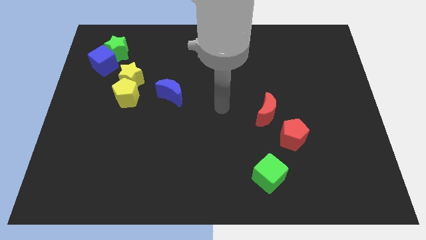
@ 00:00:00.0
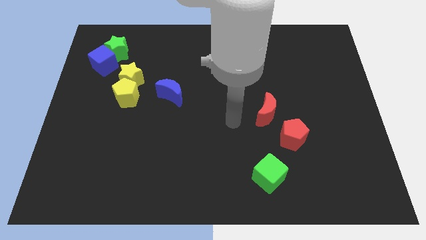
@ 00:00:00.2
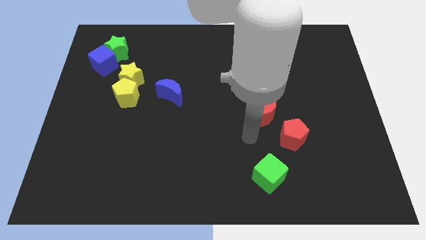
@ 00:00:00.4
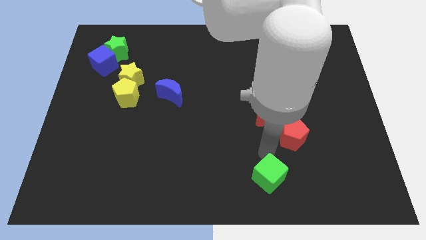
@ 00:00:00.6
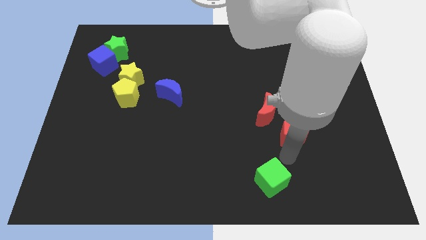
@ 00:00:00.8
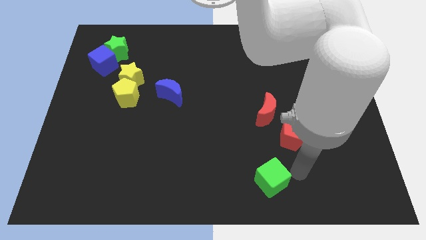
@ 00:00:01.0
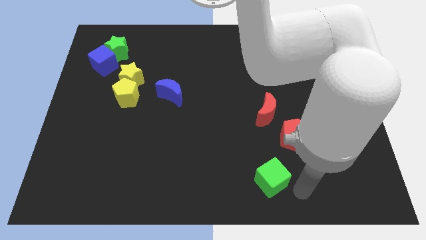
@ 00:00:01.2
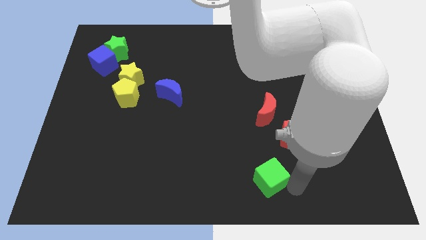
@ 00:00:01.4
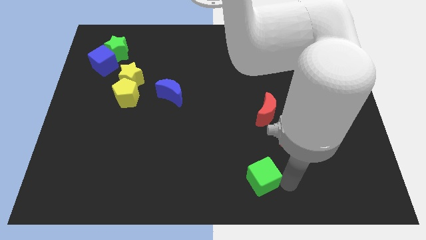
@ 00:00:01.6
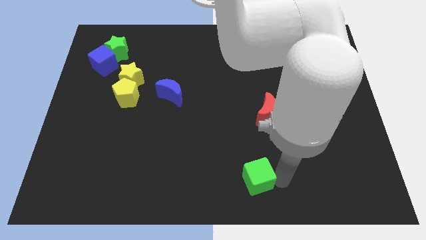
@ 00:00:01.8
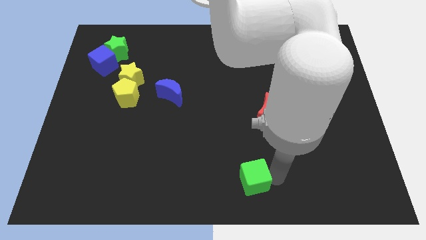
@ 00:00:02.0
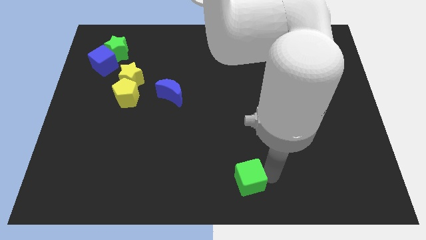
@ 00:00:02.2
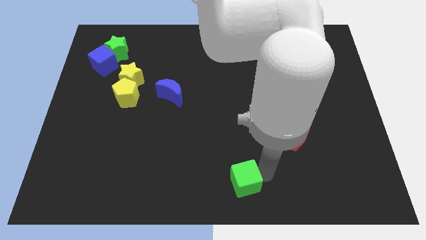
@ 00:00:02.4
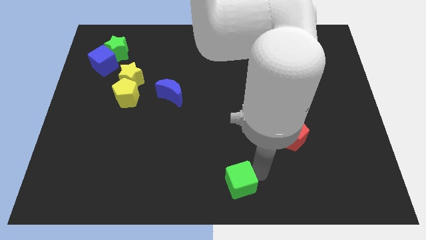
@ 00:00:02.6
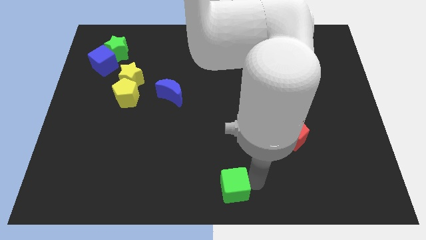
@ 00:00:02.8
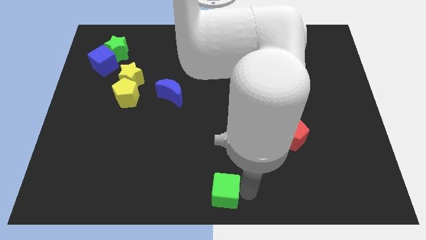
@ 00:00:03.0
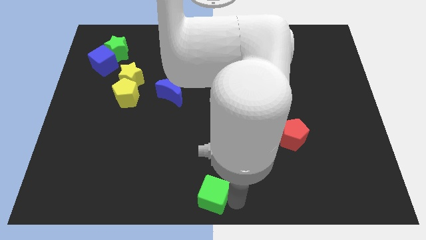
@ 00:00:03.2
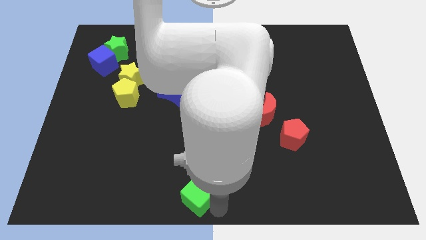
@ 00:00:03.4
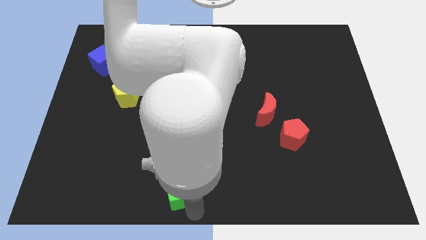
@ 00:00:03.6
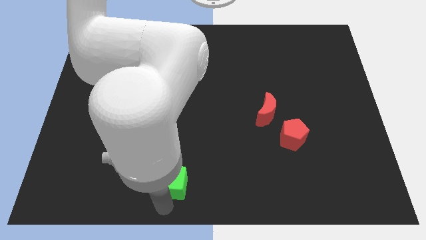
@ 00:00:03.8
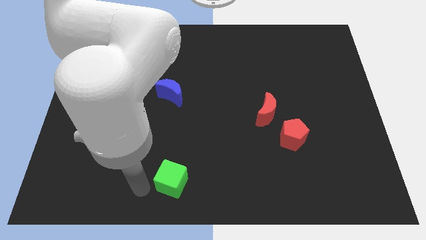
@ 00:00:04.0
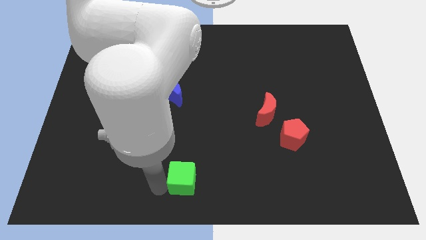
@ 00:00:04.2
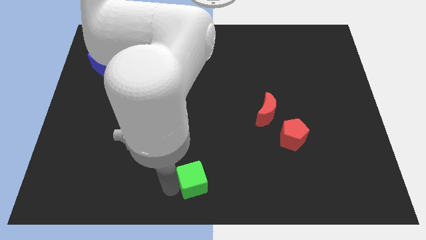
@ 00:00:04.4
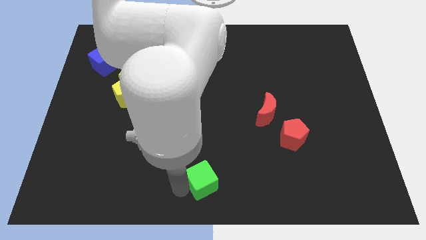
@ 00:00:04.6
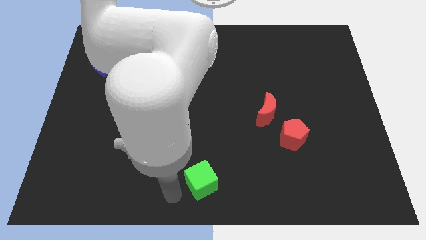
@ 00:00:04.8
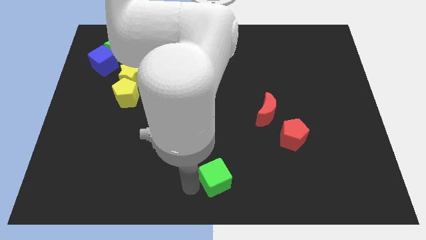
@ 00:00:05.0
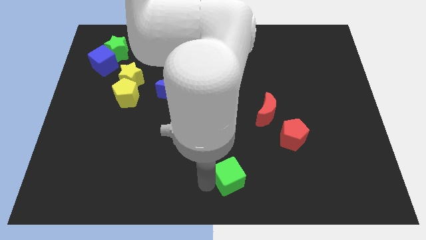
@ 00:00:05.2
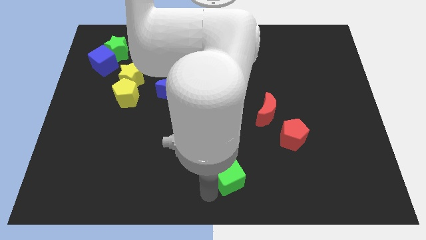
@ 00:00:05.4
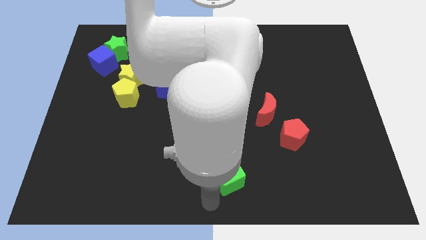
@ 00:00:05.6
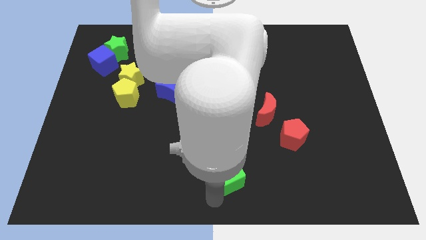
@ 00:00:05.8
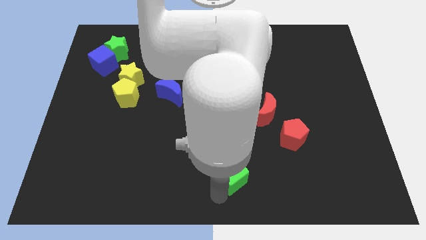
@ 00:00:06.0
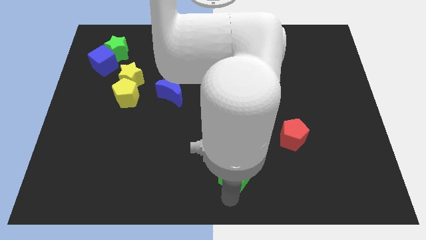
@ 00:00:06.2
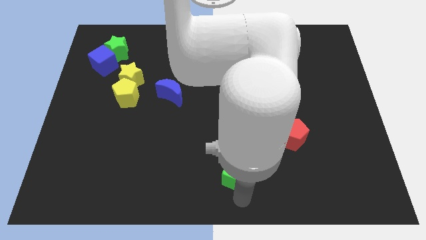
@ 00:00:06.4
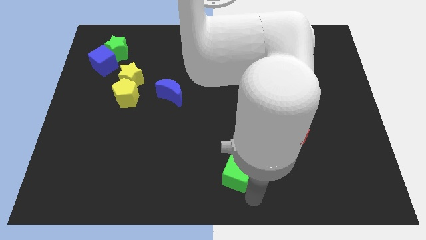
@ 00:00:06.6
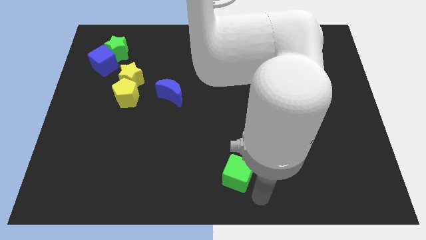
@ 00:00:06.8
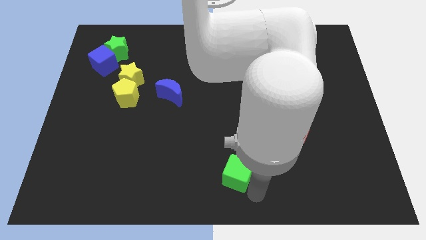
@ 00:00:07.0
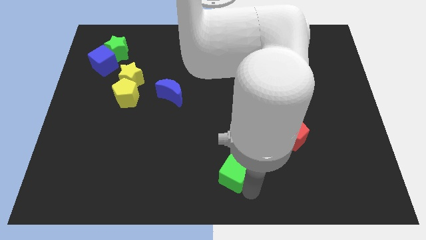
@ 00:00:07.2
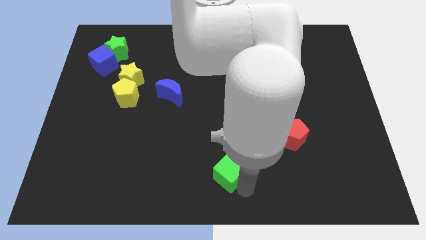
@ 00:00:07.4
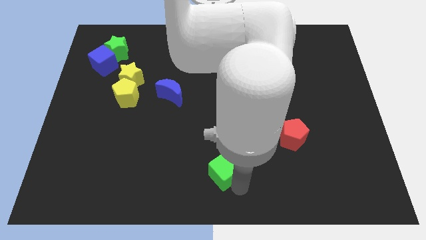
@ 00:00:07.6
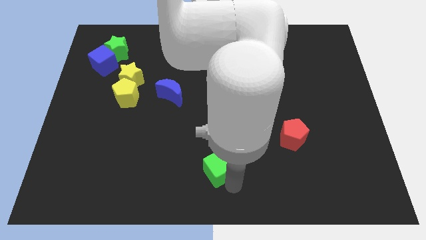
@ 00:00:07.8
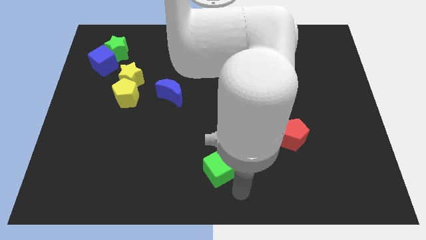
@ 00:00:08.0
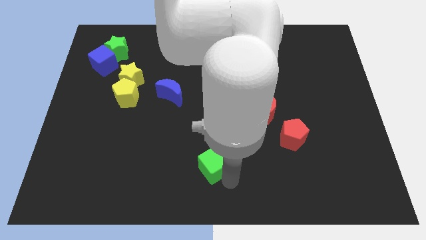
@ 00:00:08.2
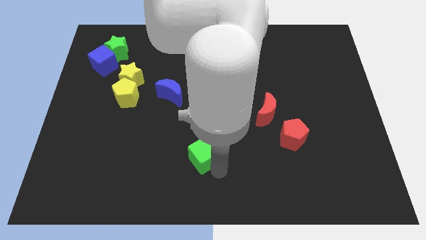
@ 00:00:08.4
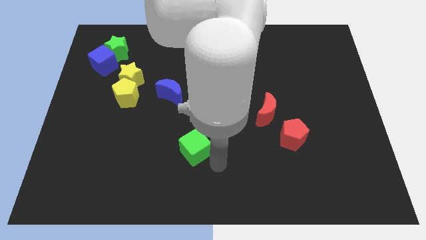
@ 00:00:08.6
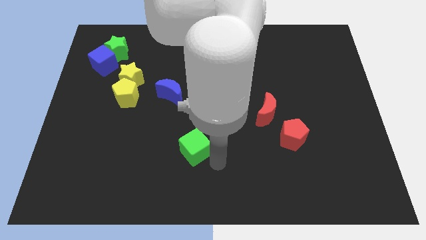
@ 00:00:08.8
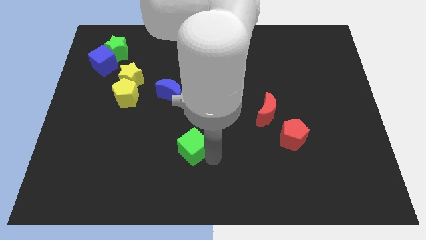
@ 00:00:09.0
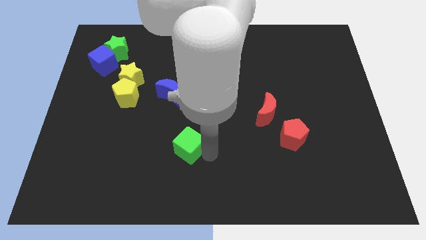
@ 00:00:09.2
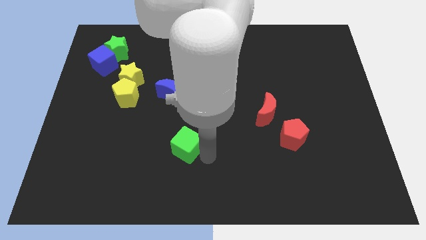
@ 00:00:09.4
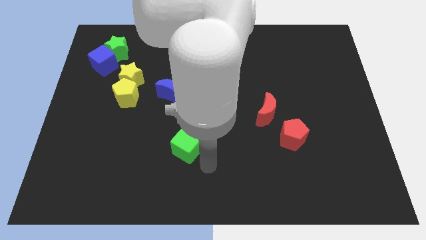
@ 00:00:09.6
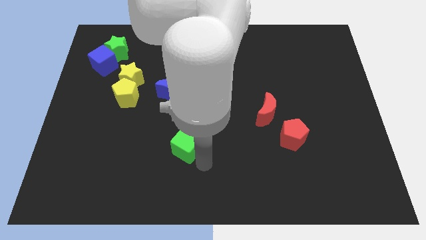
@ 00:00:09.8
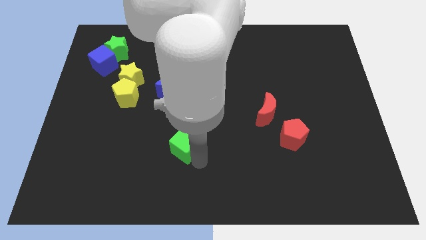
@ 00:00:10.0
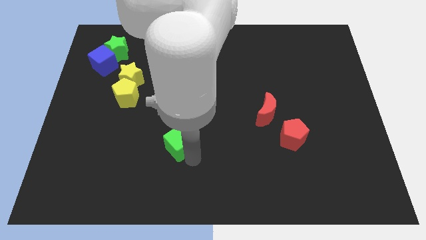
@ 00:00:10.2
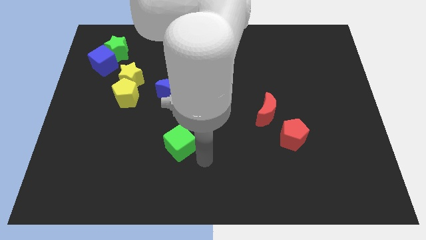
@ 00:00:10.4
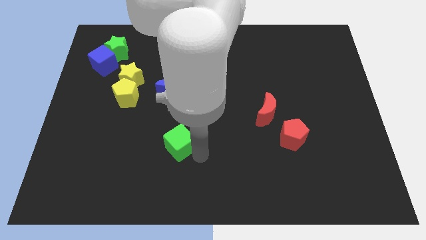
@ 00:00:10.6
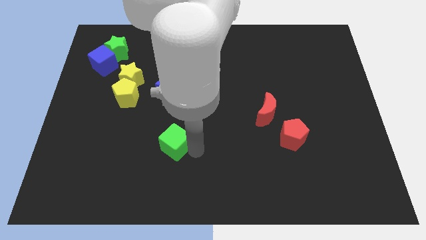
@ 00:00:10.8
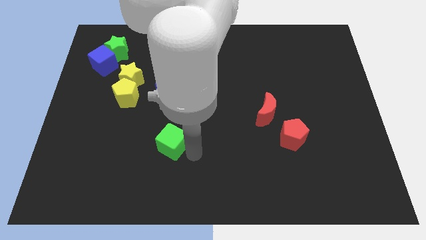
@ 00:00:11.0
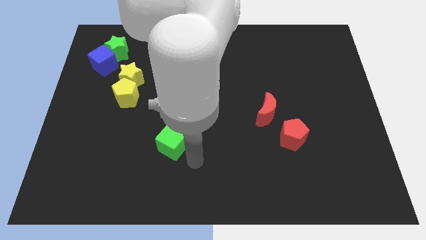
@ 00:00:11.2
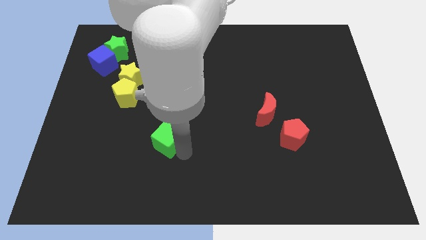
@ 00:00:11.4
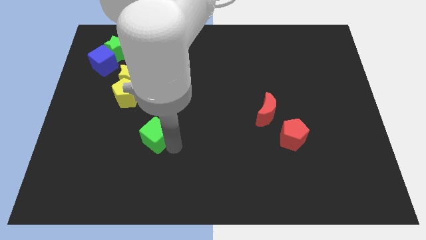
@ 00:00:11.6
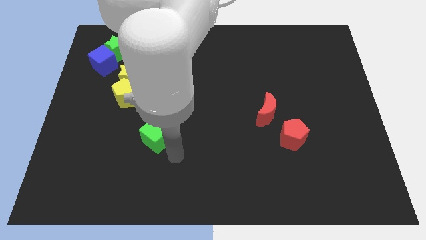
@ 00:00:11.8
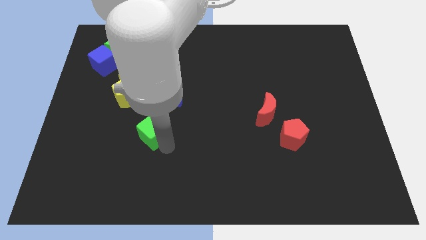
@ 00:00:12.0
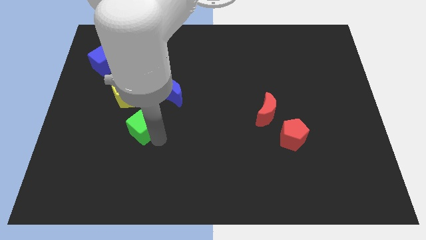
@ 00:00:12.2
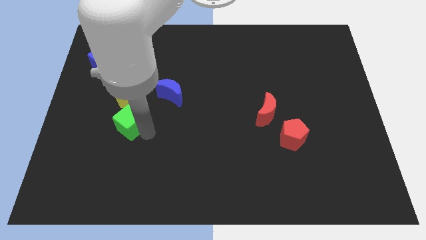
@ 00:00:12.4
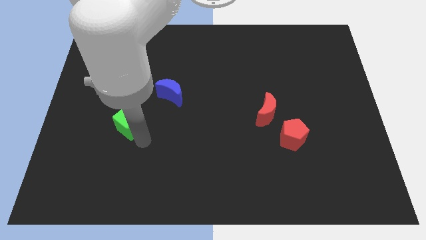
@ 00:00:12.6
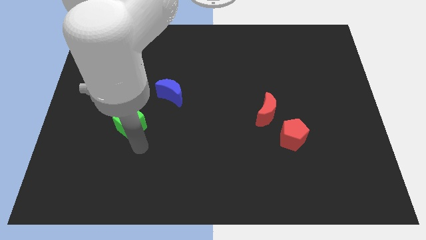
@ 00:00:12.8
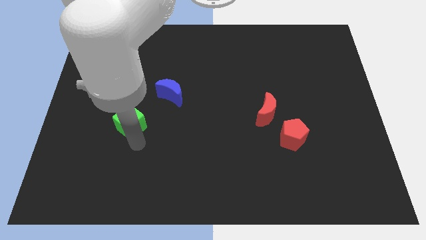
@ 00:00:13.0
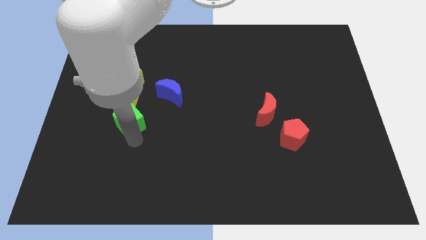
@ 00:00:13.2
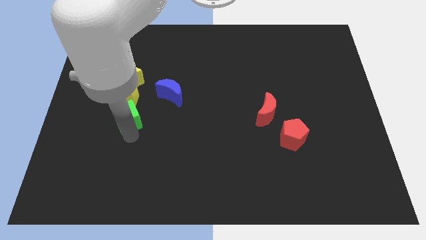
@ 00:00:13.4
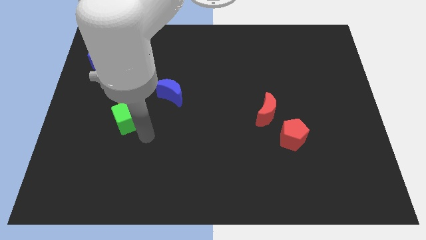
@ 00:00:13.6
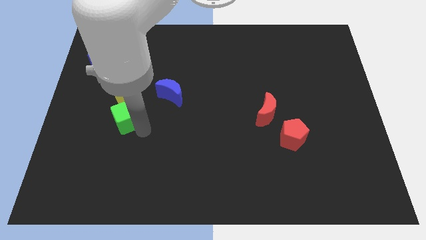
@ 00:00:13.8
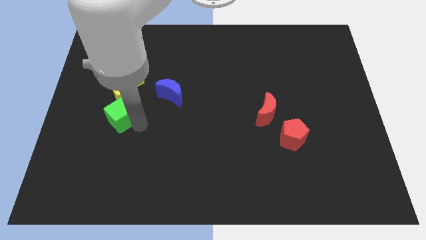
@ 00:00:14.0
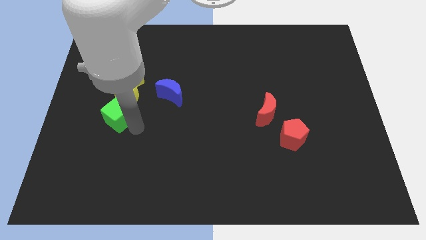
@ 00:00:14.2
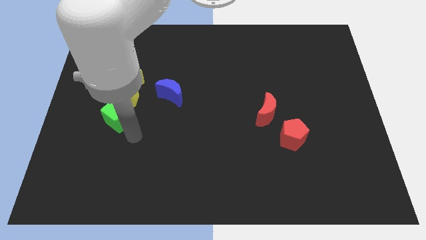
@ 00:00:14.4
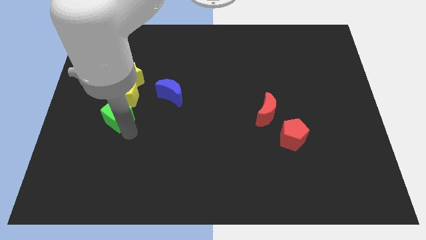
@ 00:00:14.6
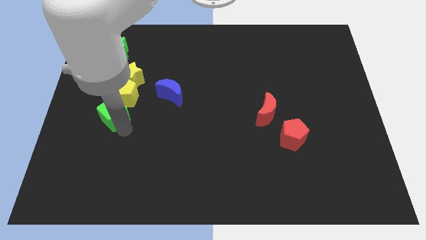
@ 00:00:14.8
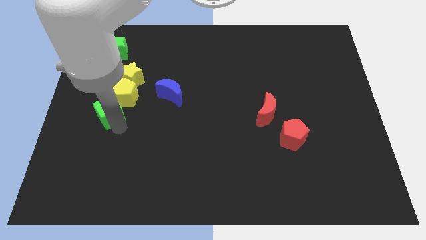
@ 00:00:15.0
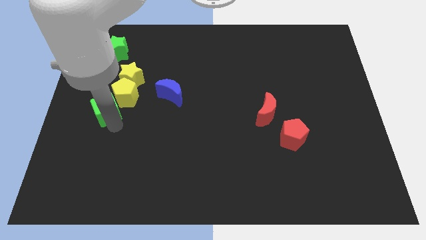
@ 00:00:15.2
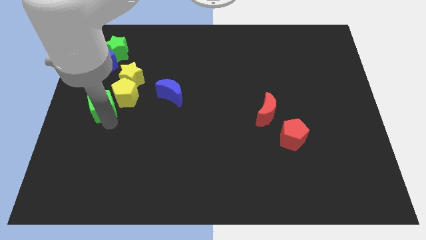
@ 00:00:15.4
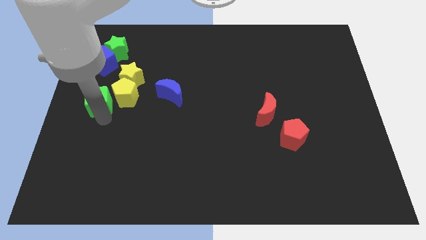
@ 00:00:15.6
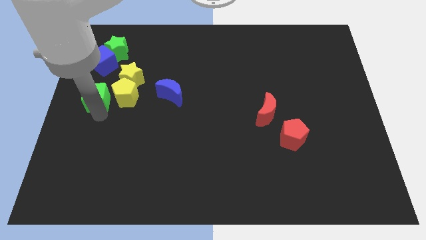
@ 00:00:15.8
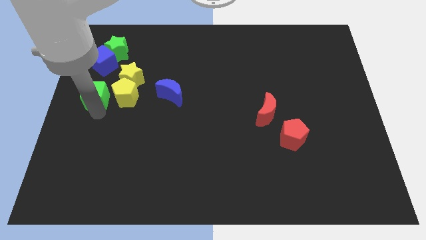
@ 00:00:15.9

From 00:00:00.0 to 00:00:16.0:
put the green cube to the bottom of the green star
